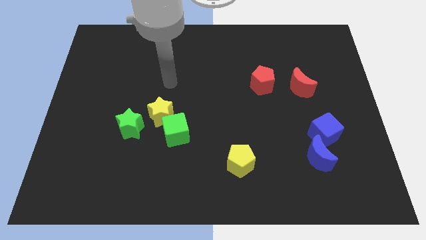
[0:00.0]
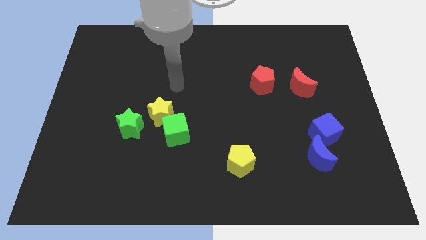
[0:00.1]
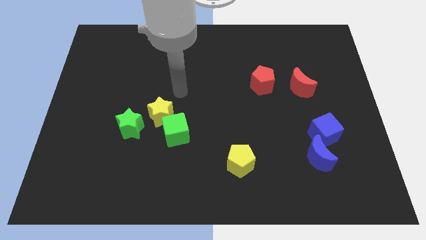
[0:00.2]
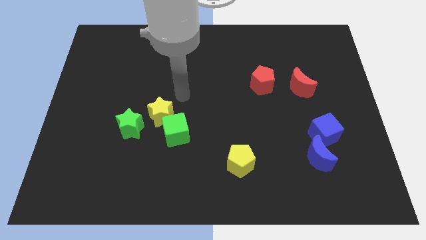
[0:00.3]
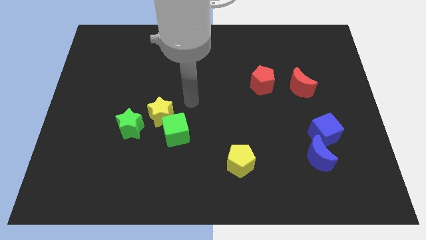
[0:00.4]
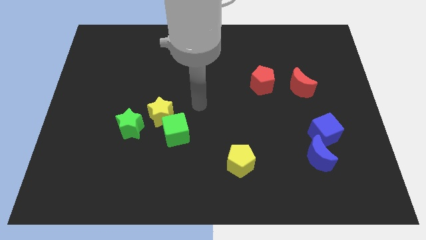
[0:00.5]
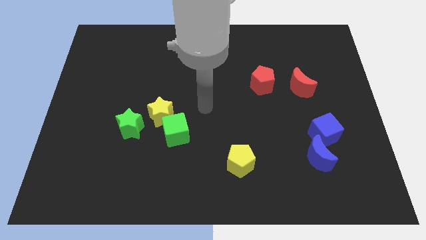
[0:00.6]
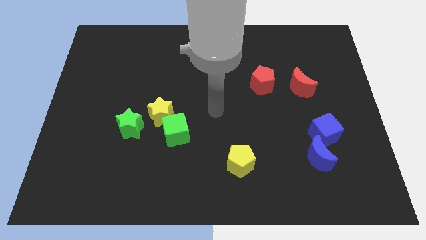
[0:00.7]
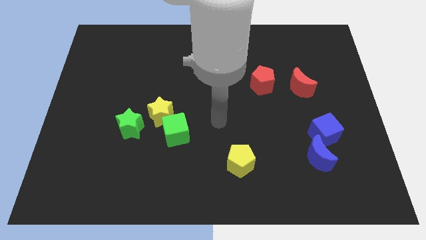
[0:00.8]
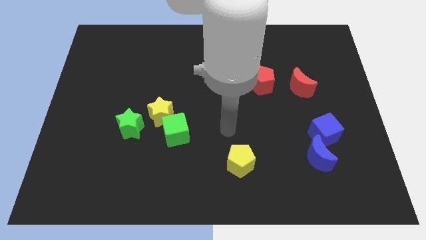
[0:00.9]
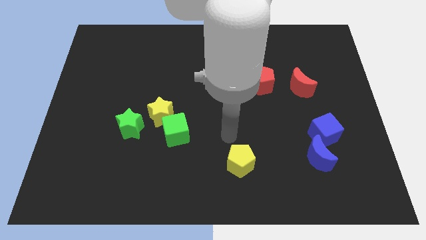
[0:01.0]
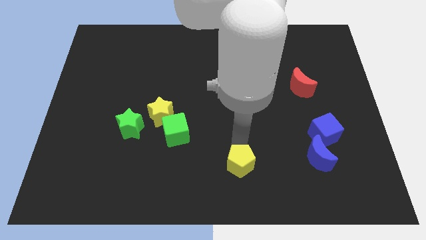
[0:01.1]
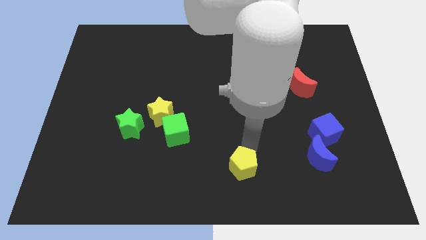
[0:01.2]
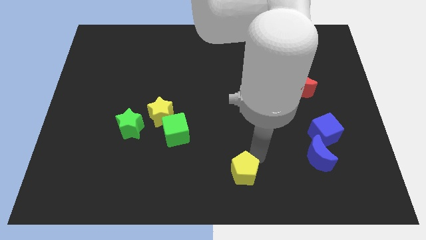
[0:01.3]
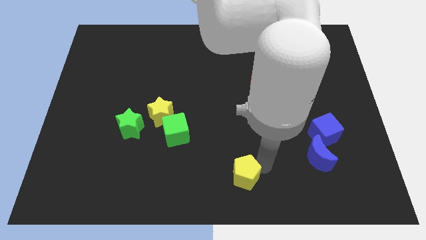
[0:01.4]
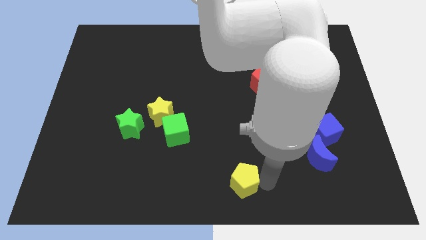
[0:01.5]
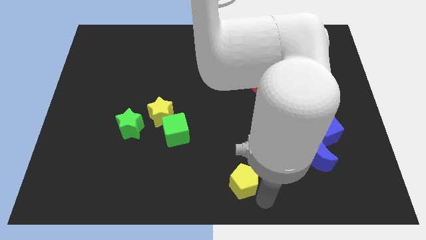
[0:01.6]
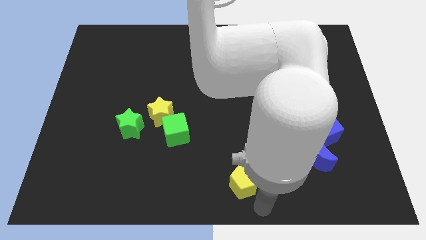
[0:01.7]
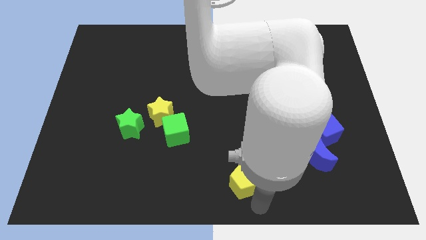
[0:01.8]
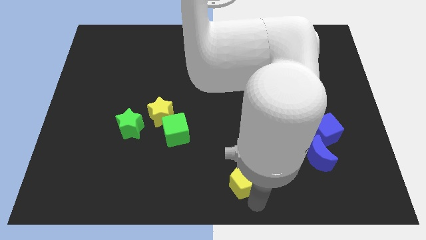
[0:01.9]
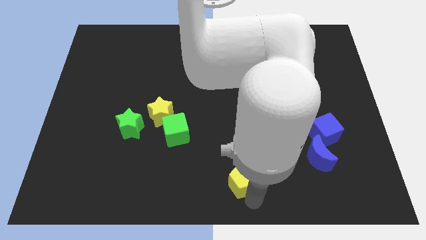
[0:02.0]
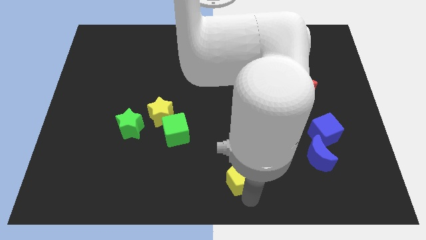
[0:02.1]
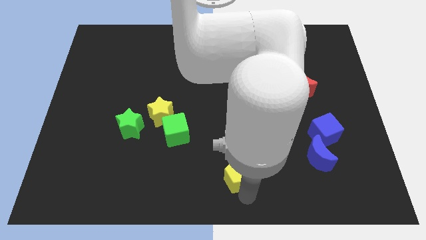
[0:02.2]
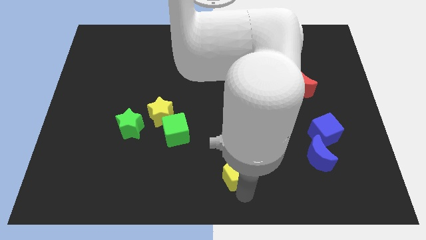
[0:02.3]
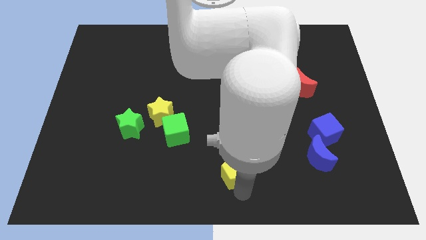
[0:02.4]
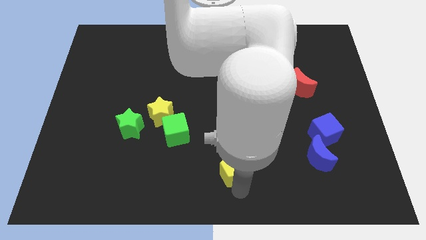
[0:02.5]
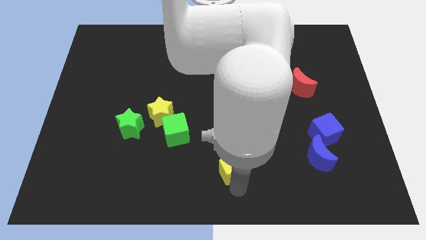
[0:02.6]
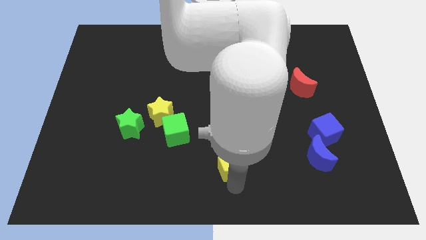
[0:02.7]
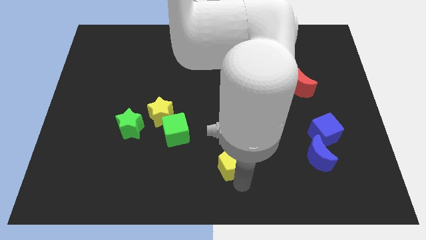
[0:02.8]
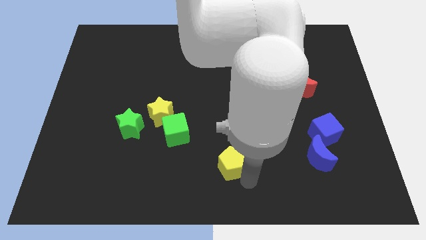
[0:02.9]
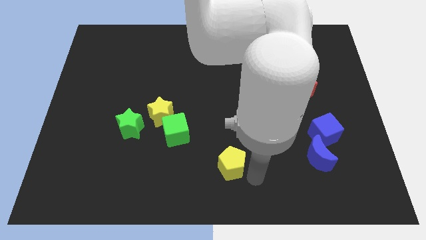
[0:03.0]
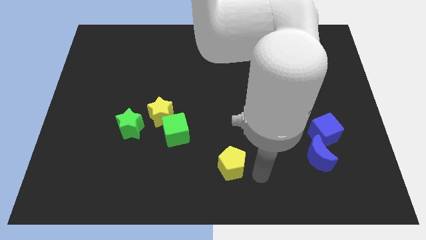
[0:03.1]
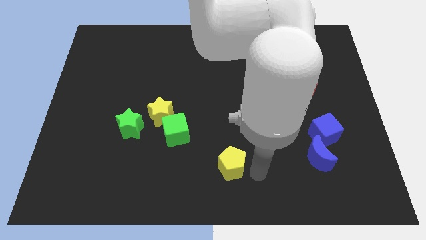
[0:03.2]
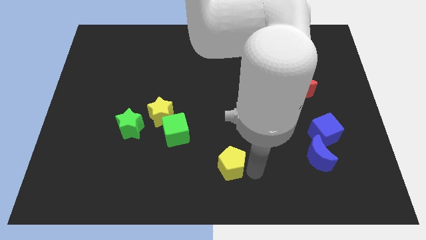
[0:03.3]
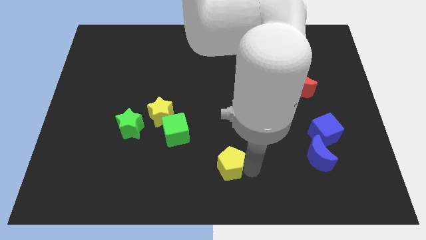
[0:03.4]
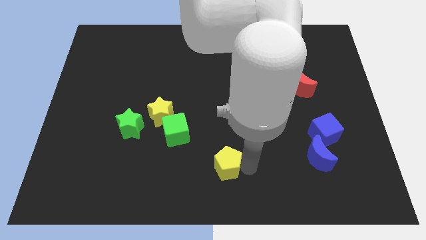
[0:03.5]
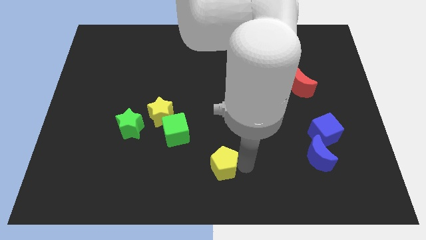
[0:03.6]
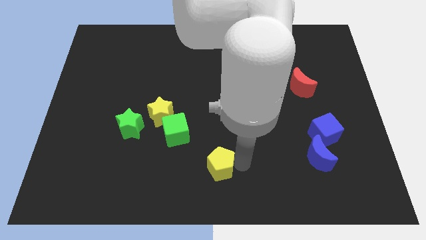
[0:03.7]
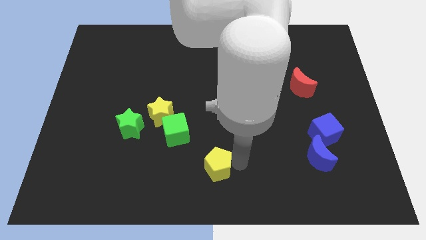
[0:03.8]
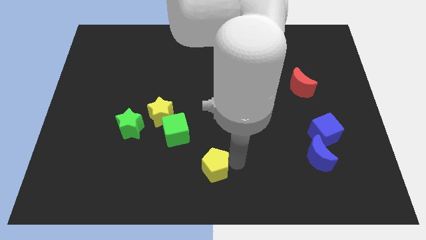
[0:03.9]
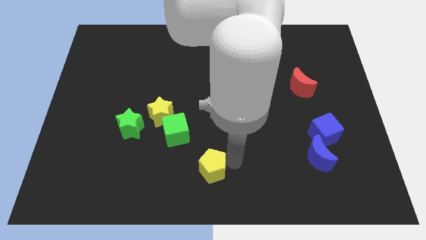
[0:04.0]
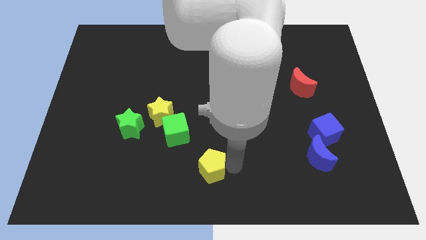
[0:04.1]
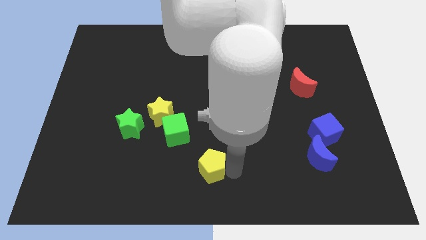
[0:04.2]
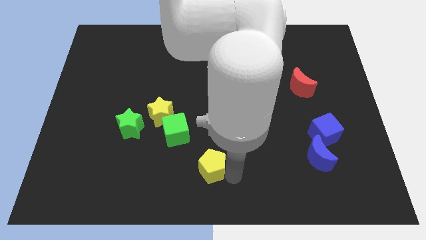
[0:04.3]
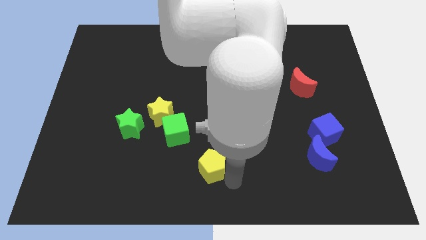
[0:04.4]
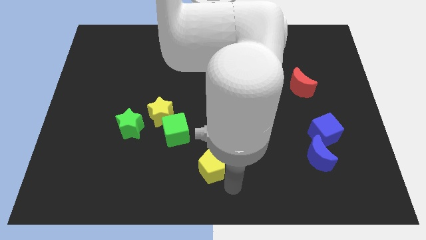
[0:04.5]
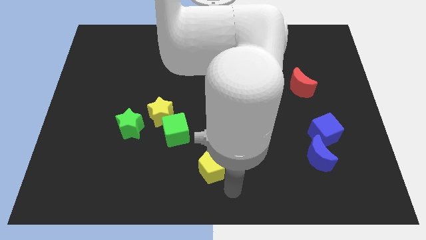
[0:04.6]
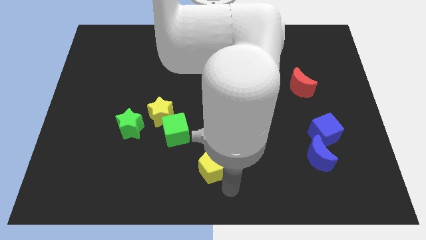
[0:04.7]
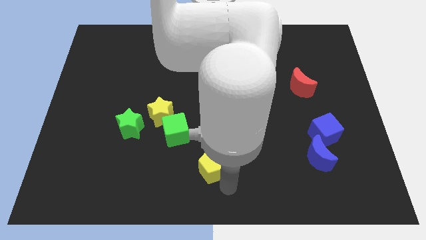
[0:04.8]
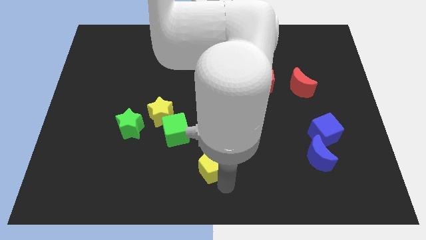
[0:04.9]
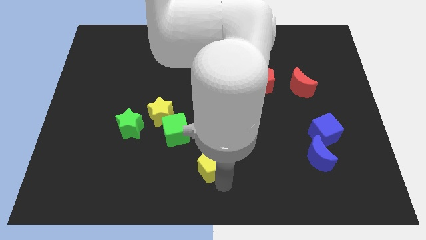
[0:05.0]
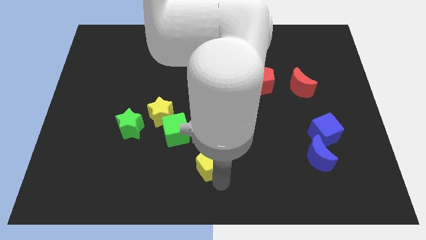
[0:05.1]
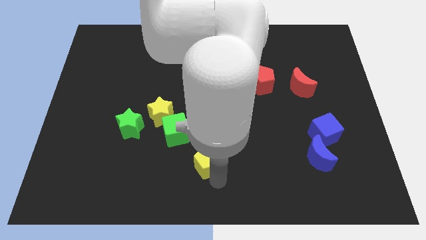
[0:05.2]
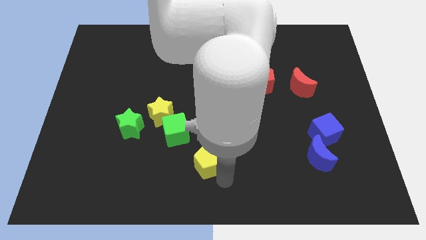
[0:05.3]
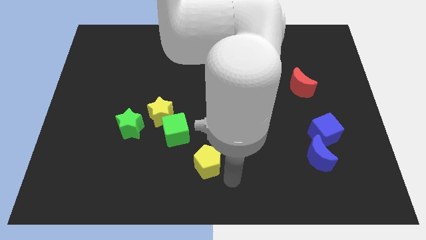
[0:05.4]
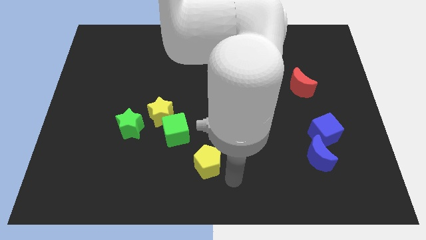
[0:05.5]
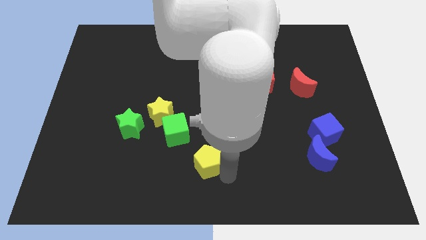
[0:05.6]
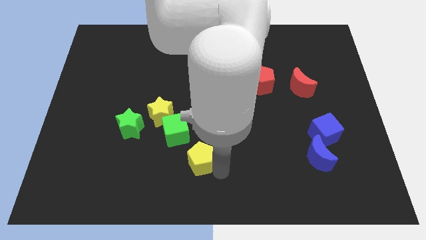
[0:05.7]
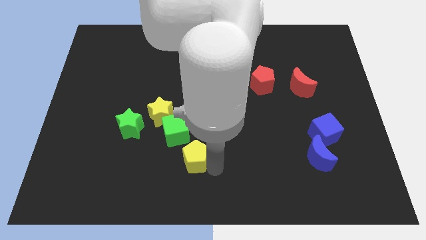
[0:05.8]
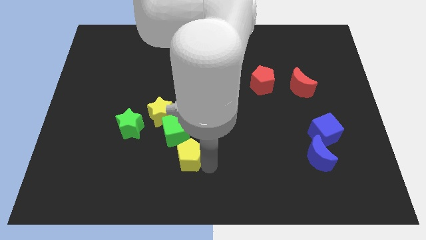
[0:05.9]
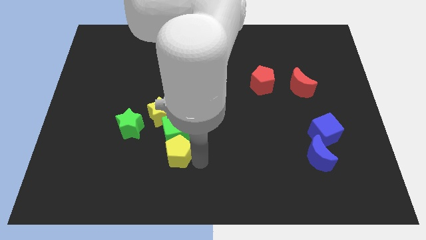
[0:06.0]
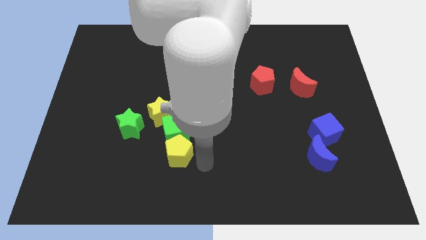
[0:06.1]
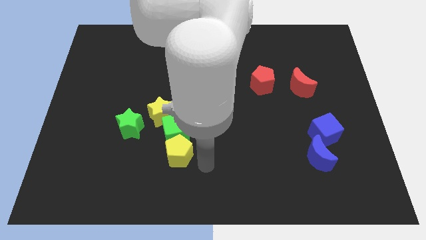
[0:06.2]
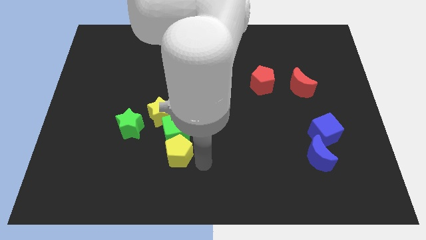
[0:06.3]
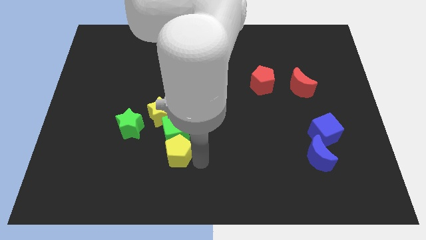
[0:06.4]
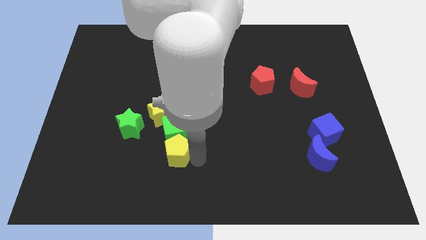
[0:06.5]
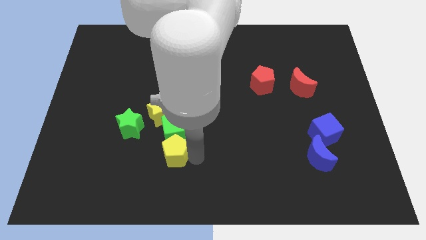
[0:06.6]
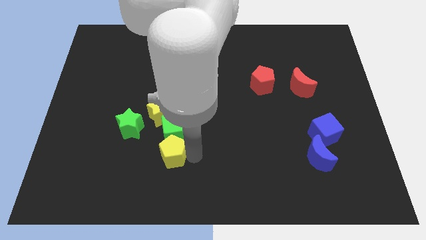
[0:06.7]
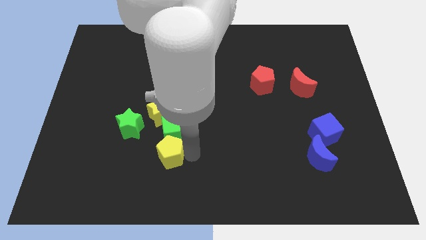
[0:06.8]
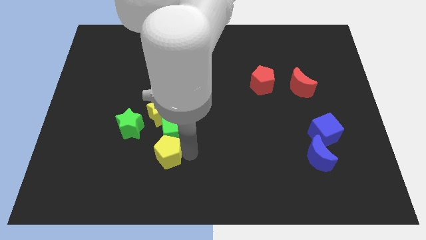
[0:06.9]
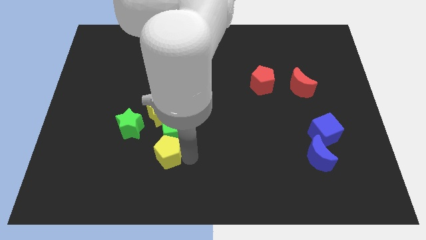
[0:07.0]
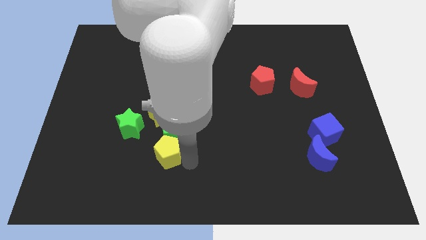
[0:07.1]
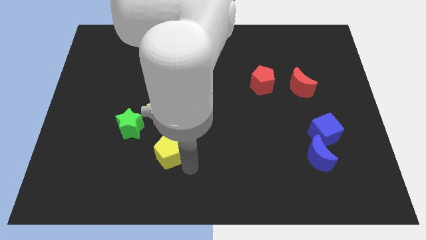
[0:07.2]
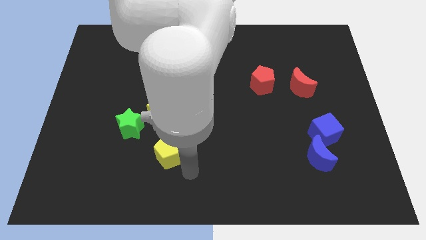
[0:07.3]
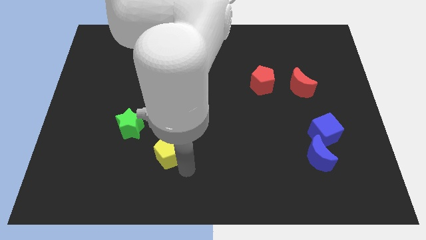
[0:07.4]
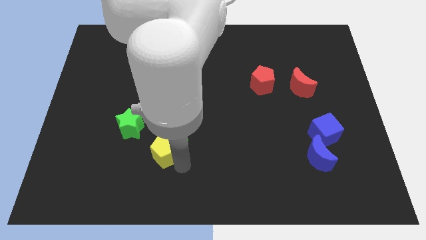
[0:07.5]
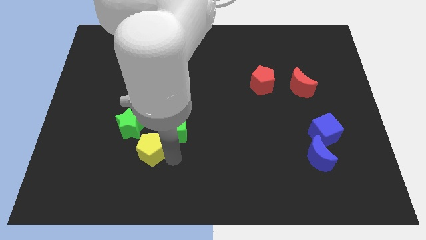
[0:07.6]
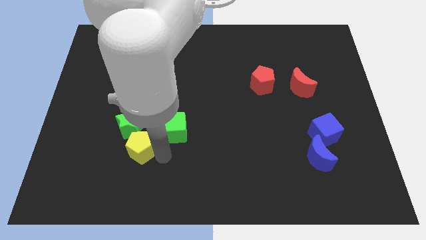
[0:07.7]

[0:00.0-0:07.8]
put the yellow pentagon towards the green star
